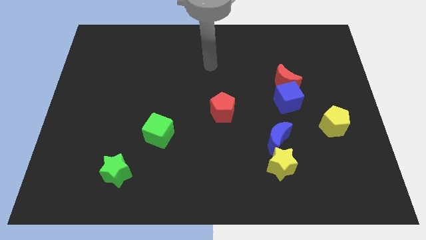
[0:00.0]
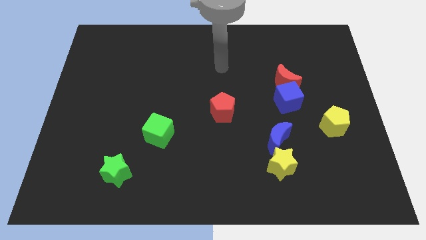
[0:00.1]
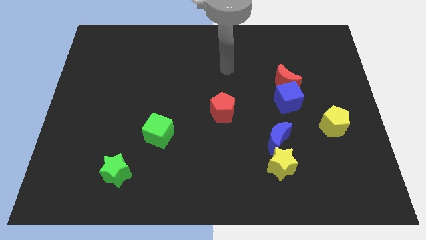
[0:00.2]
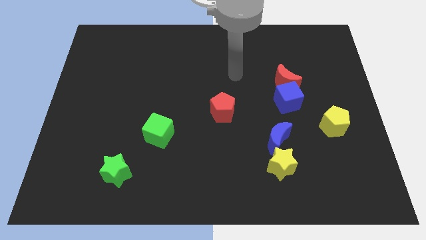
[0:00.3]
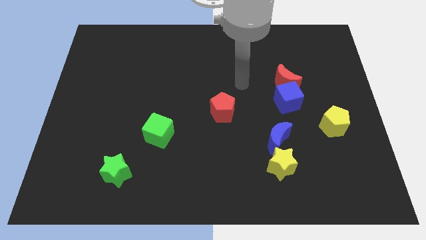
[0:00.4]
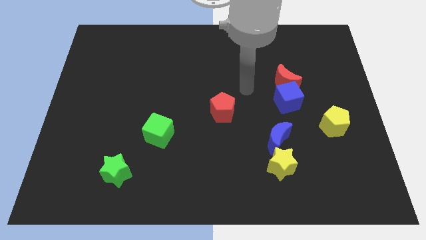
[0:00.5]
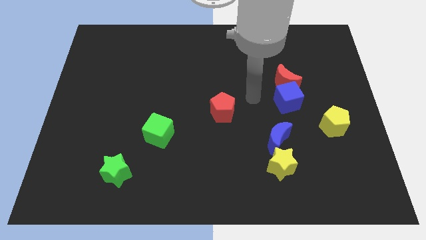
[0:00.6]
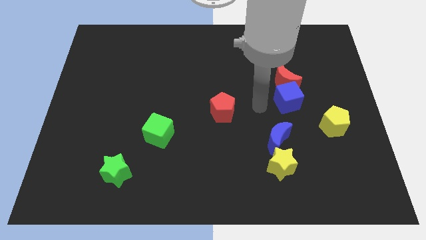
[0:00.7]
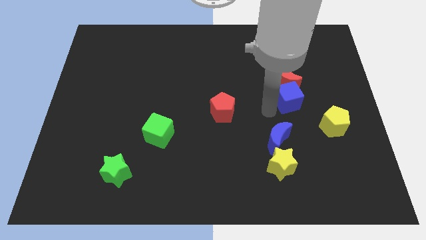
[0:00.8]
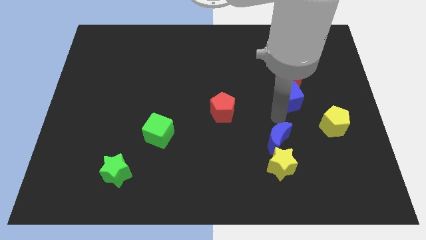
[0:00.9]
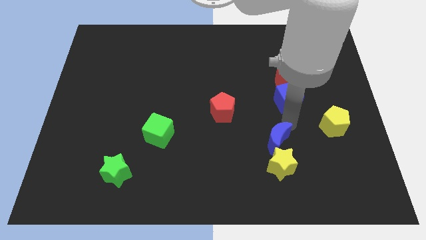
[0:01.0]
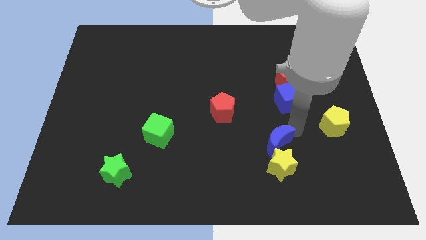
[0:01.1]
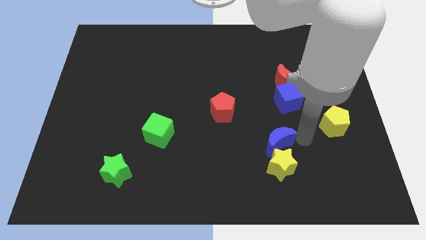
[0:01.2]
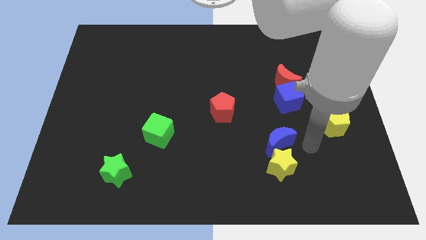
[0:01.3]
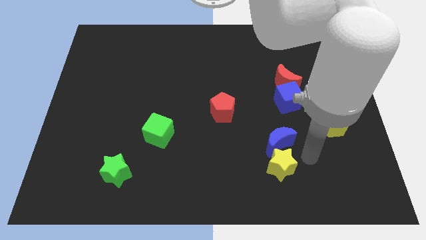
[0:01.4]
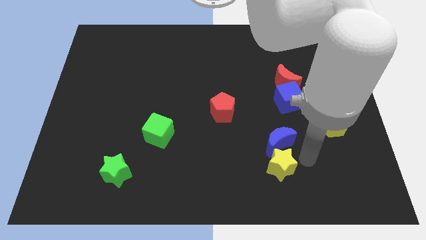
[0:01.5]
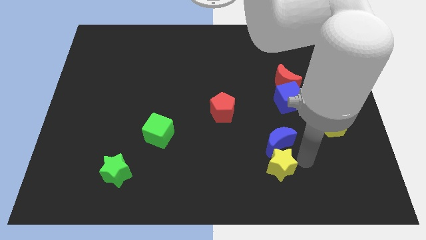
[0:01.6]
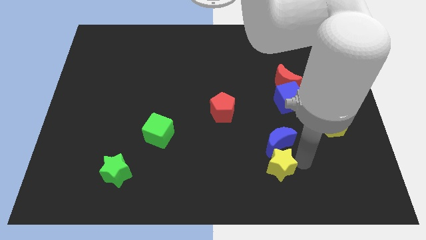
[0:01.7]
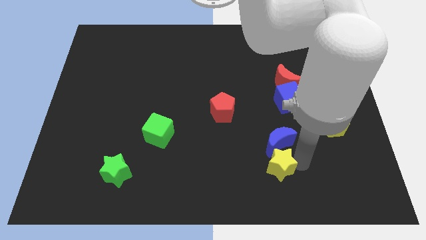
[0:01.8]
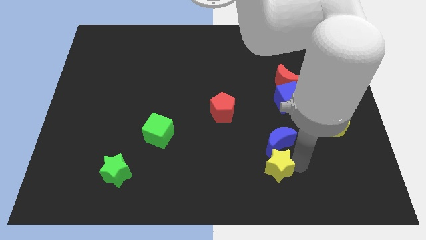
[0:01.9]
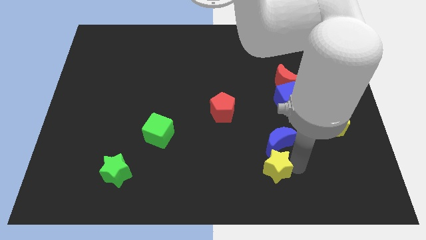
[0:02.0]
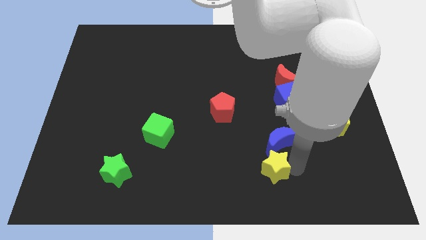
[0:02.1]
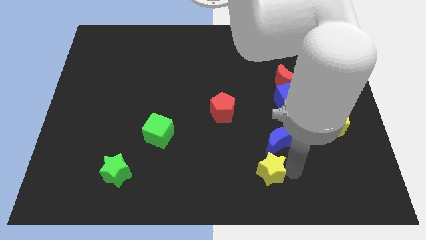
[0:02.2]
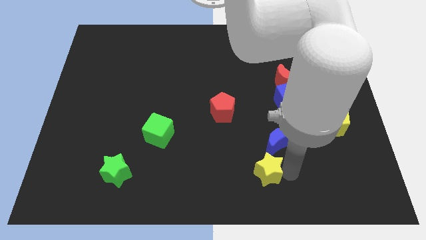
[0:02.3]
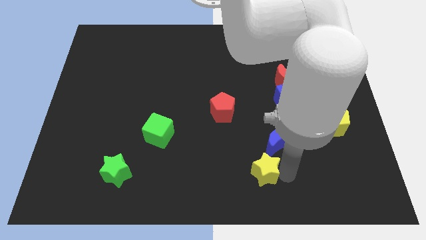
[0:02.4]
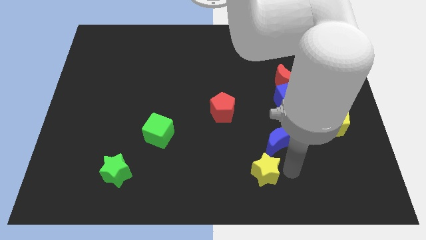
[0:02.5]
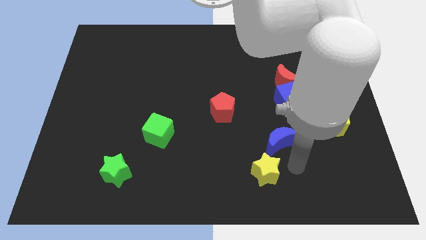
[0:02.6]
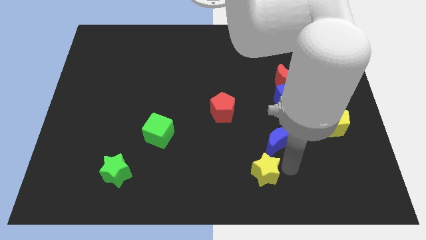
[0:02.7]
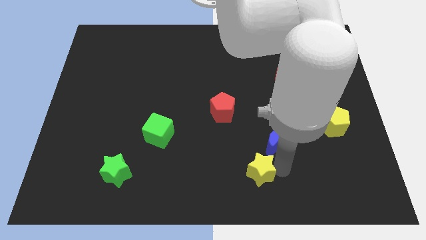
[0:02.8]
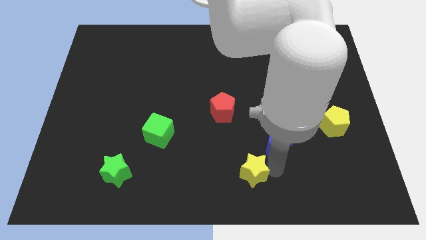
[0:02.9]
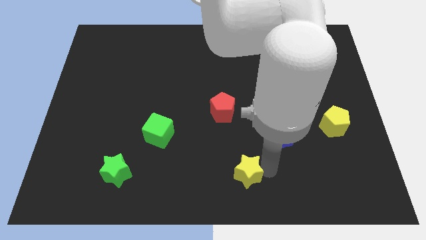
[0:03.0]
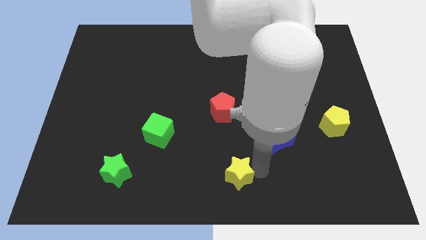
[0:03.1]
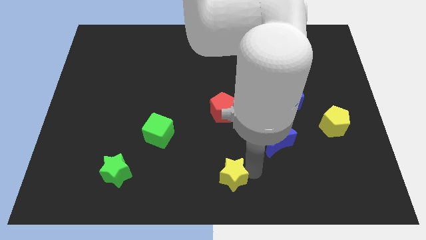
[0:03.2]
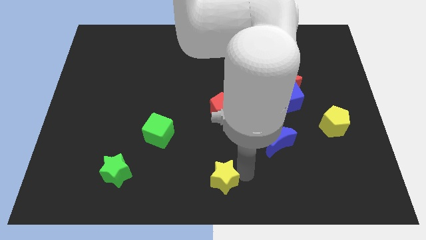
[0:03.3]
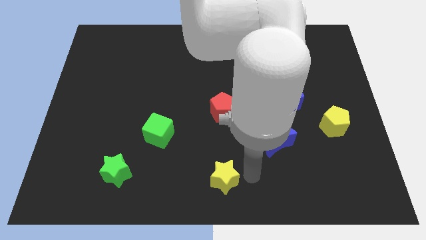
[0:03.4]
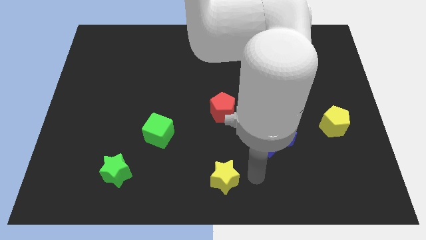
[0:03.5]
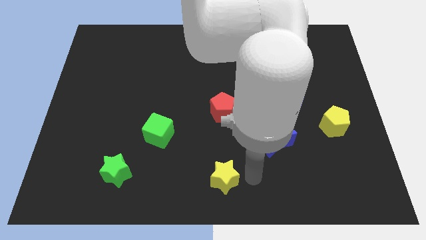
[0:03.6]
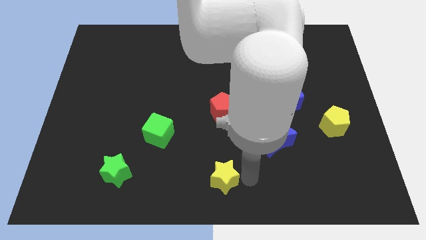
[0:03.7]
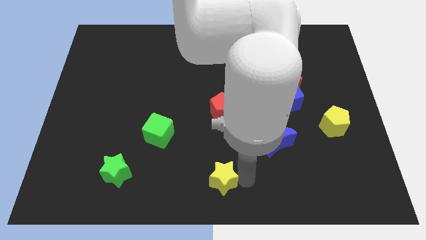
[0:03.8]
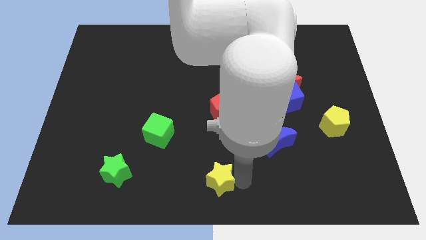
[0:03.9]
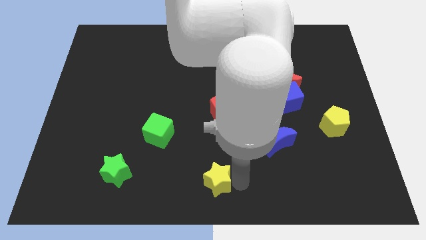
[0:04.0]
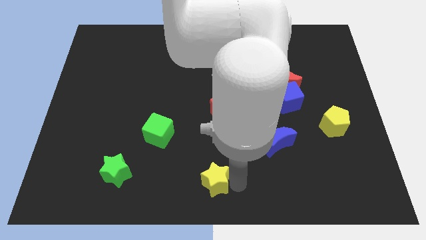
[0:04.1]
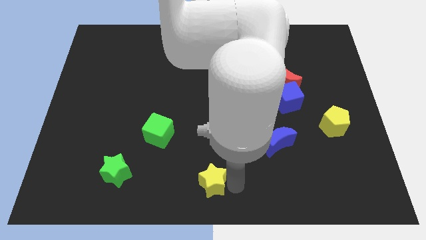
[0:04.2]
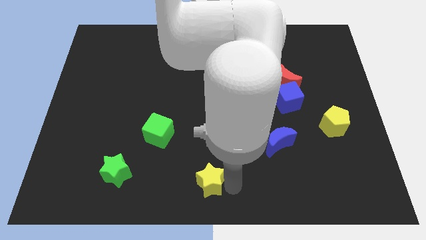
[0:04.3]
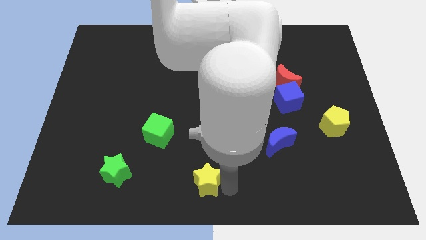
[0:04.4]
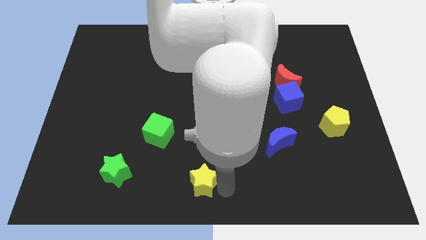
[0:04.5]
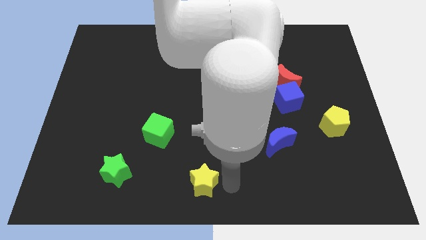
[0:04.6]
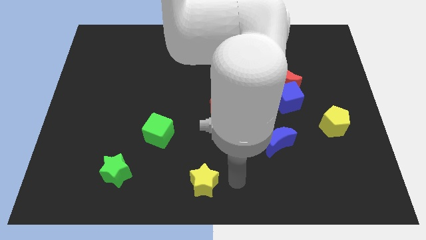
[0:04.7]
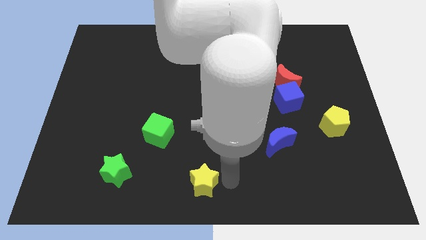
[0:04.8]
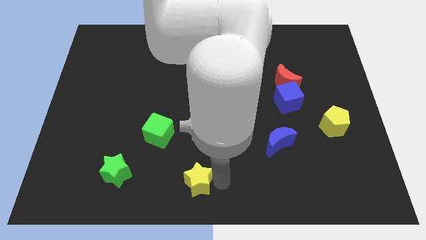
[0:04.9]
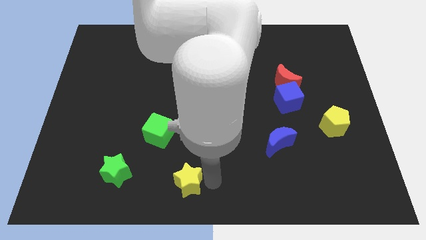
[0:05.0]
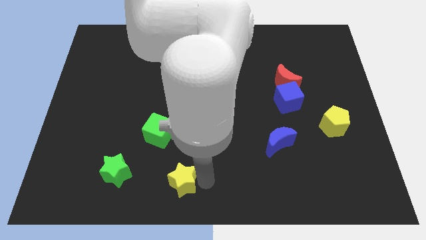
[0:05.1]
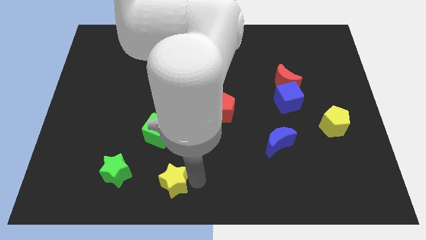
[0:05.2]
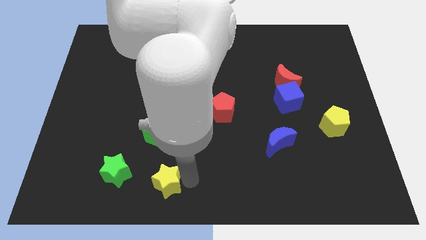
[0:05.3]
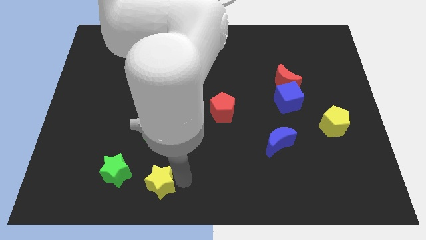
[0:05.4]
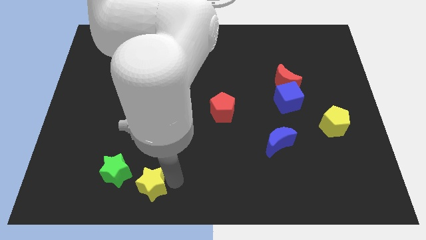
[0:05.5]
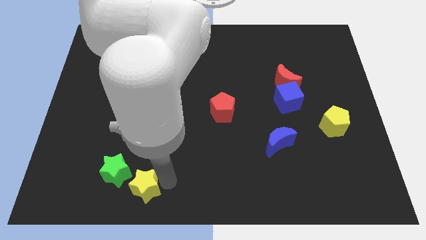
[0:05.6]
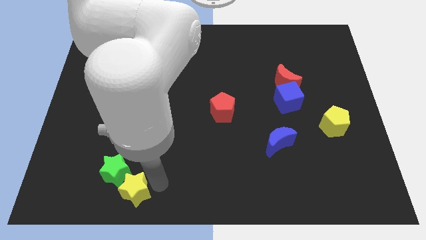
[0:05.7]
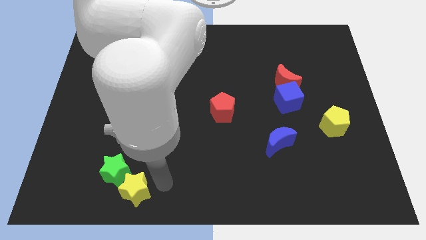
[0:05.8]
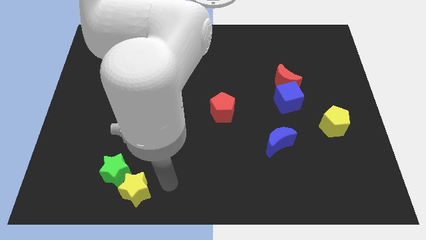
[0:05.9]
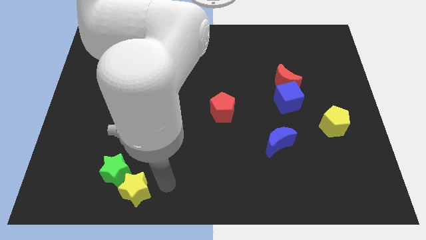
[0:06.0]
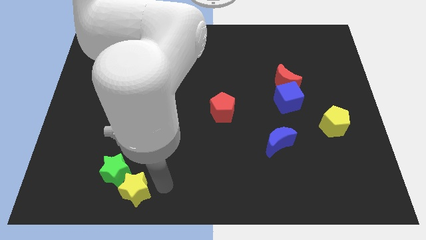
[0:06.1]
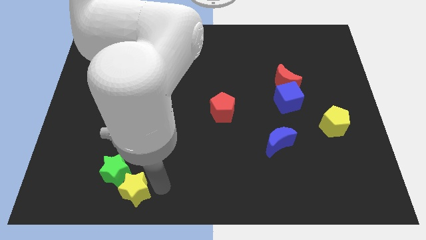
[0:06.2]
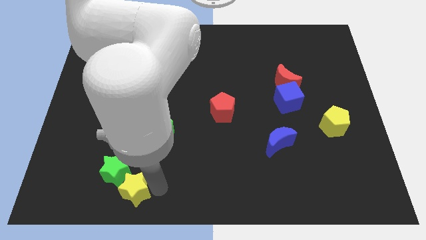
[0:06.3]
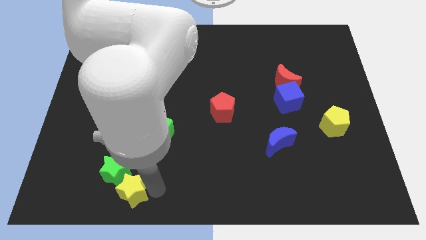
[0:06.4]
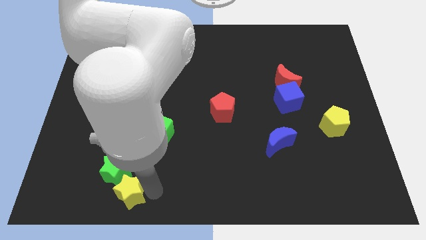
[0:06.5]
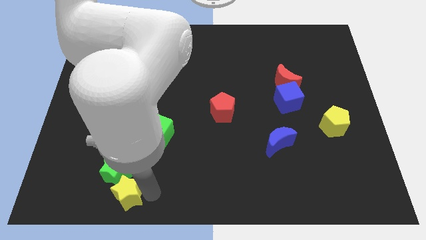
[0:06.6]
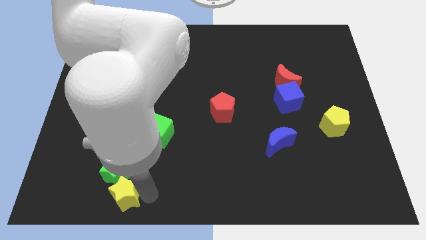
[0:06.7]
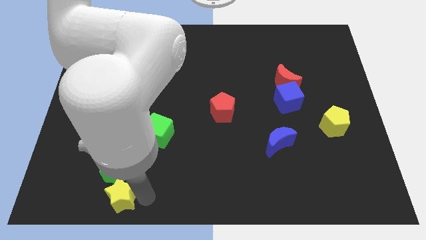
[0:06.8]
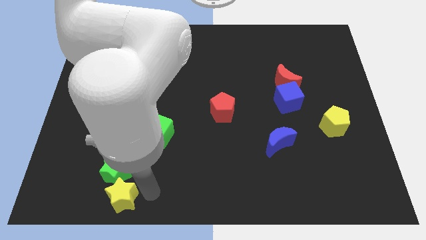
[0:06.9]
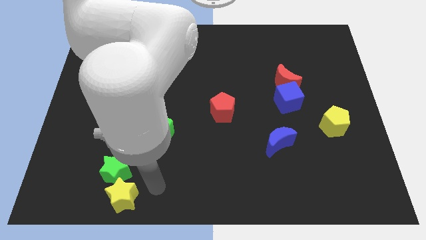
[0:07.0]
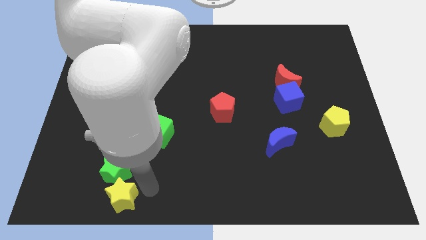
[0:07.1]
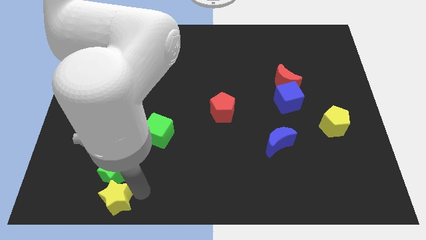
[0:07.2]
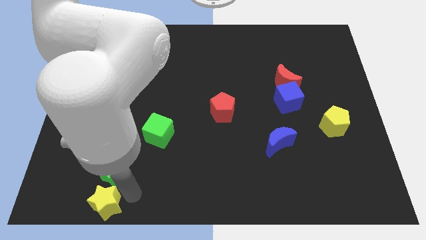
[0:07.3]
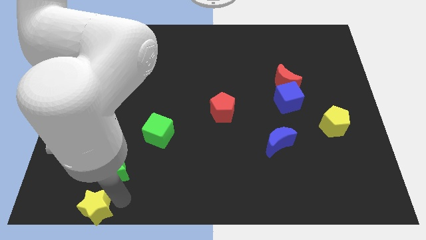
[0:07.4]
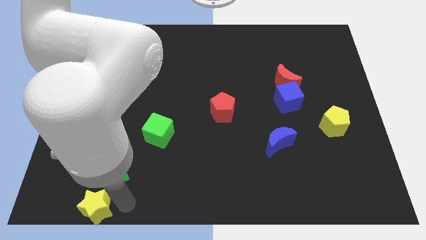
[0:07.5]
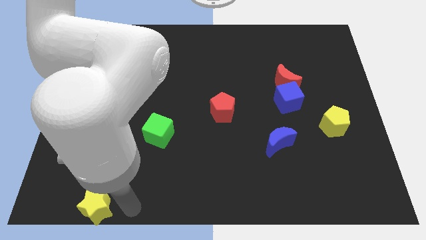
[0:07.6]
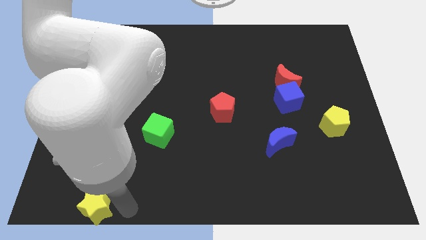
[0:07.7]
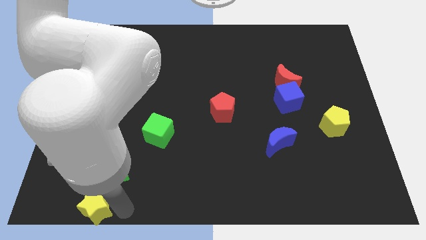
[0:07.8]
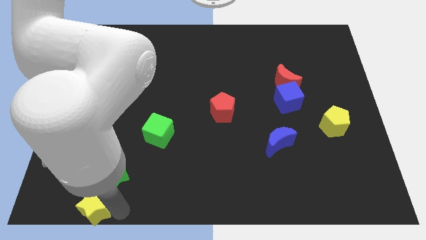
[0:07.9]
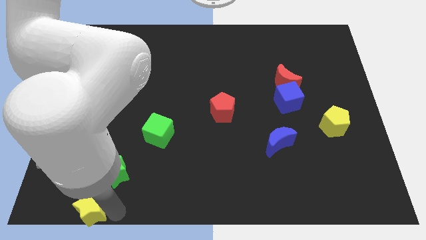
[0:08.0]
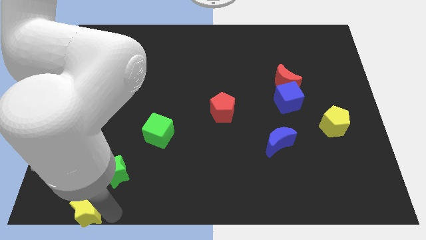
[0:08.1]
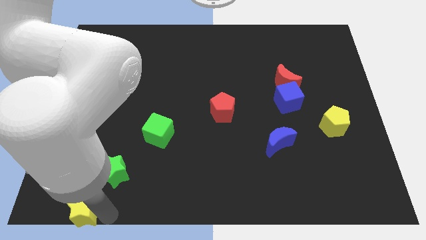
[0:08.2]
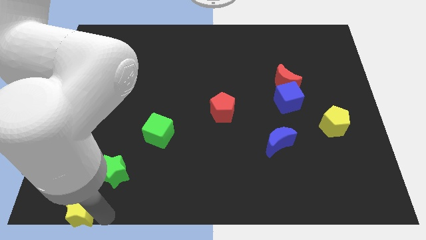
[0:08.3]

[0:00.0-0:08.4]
push the yellow star to the bottom left
